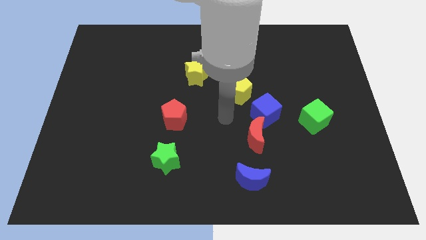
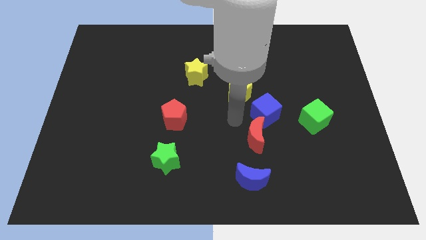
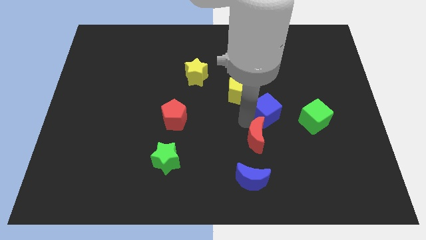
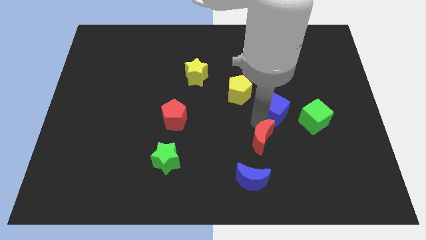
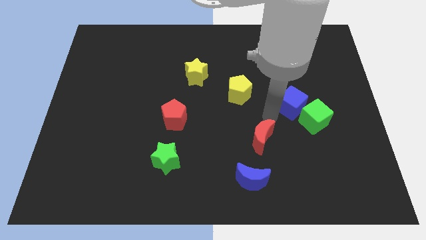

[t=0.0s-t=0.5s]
move the red moon away from the blue cube

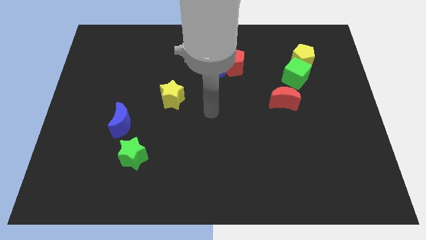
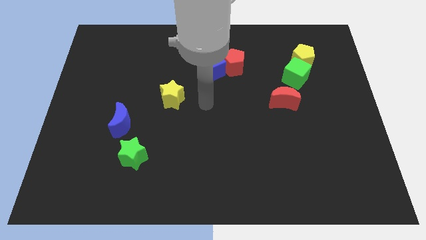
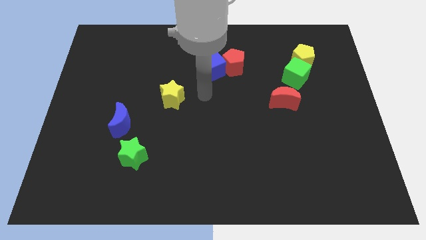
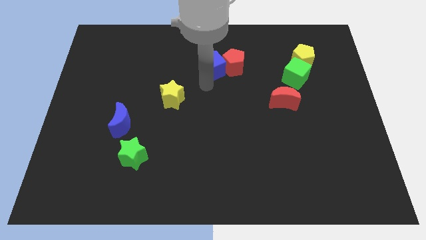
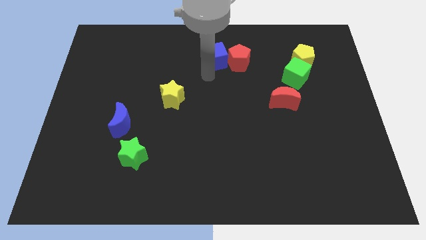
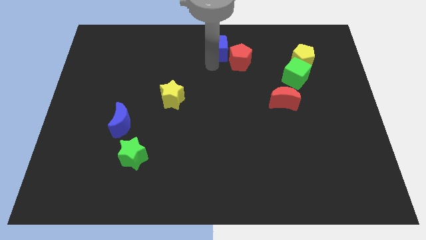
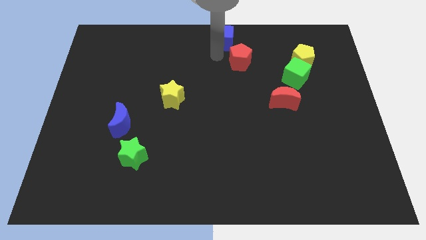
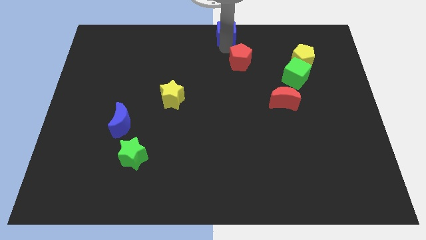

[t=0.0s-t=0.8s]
move the red pentagon away from the blue cube

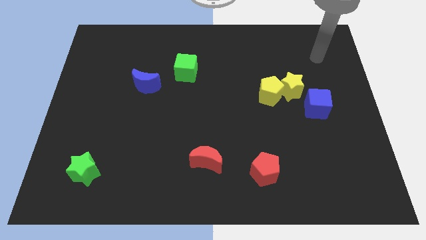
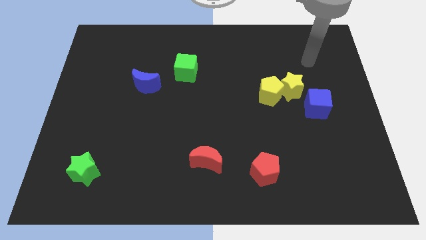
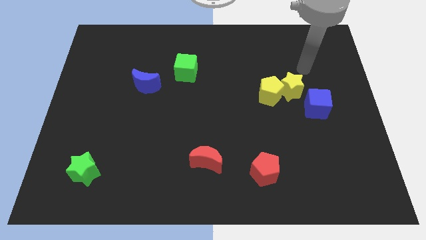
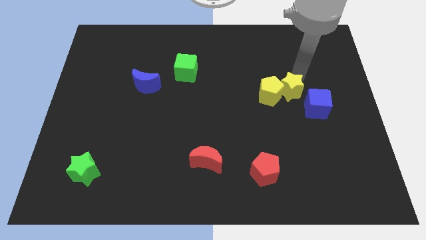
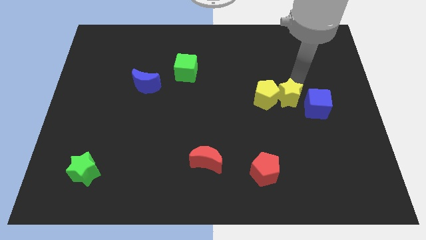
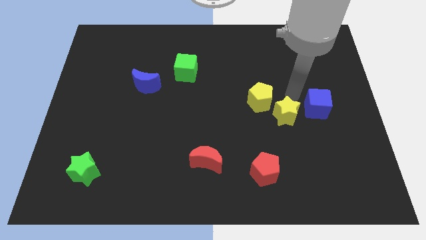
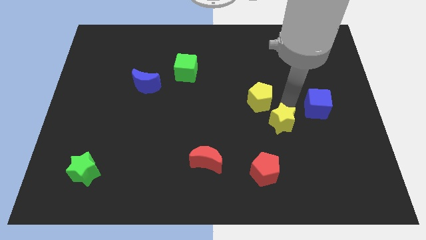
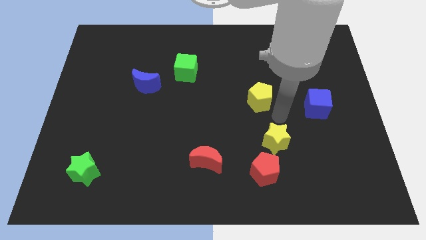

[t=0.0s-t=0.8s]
pull the yellow pentagon apart from the yellow star

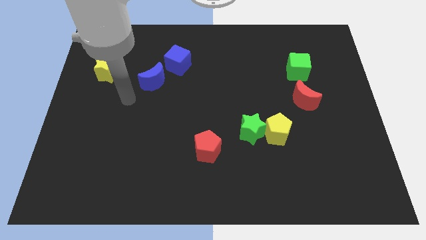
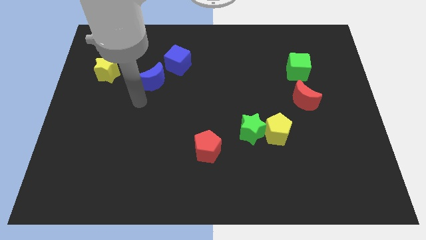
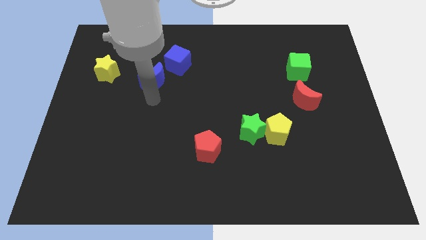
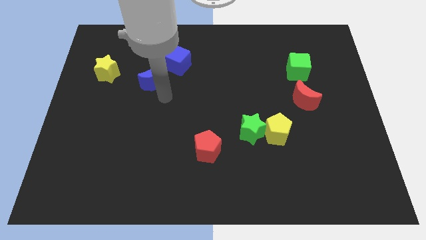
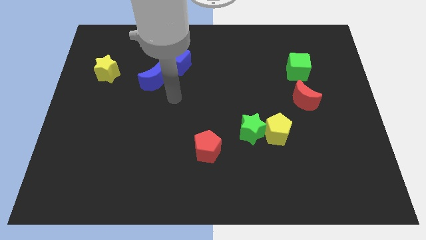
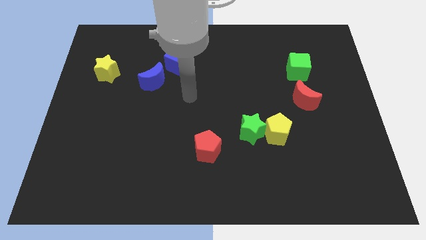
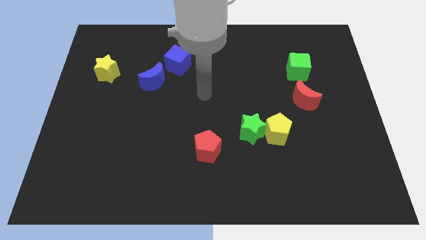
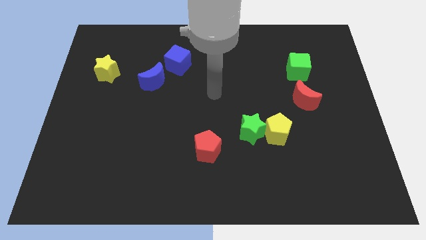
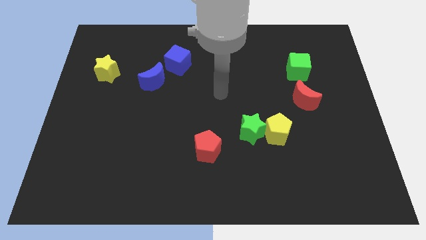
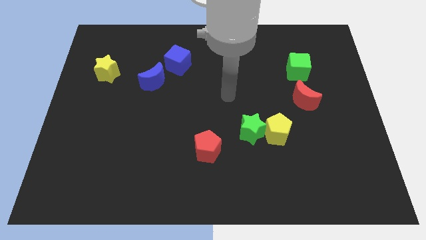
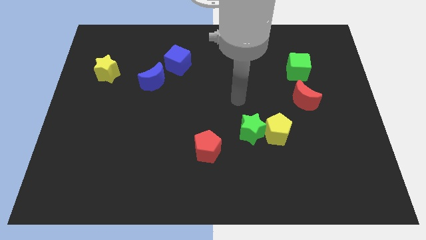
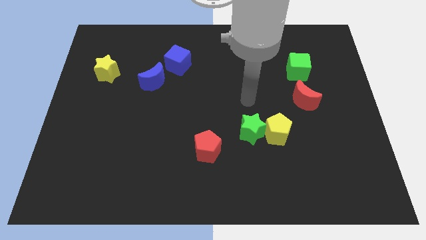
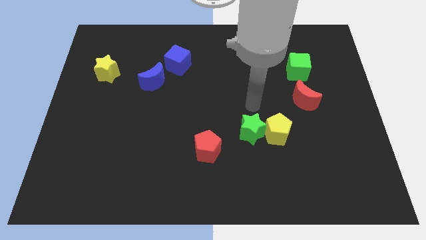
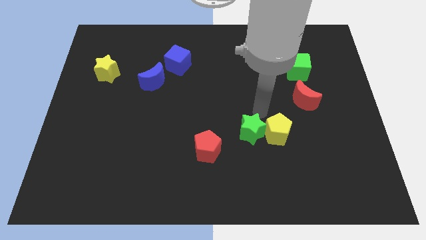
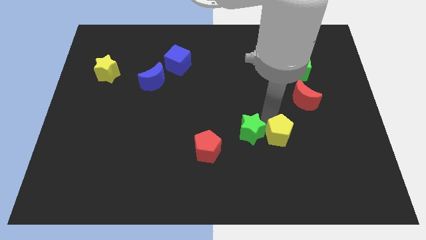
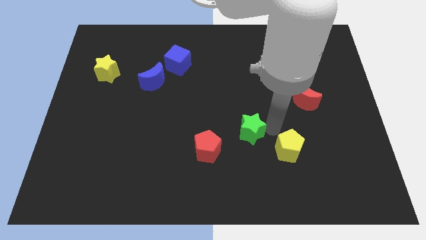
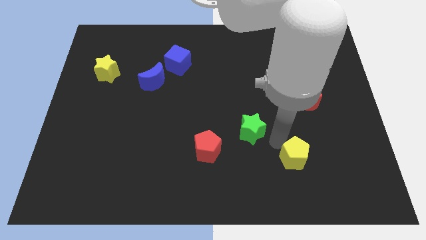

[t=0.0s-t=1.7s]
move the green star away from the yellow pentagon

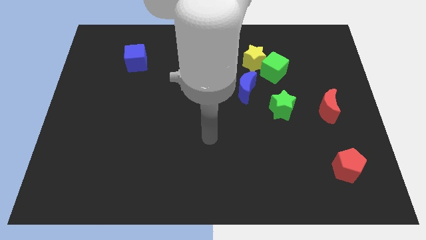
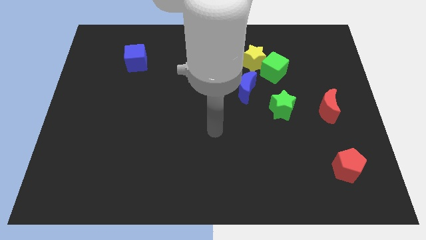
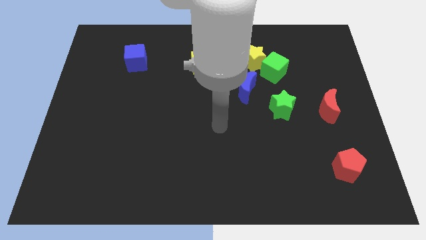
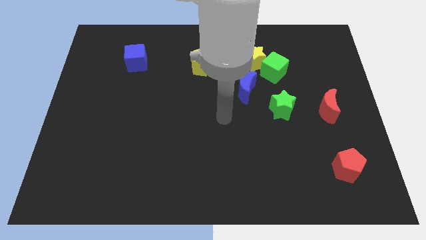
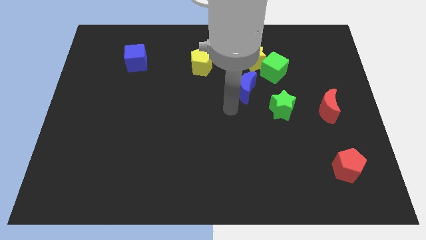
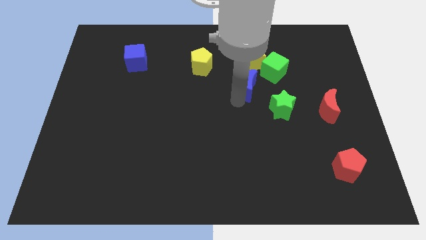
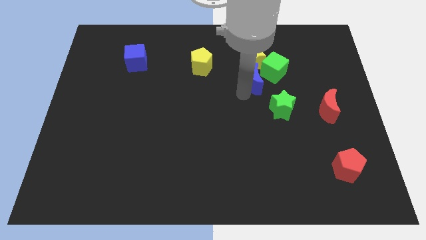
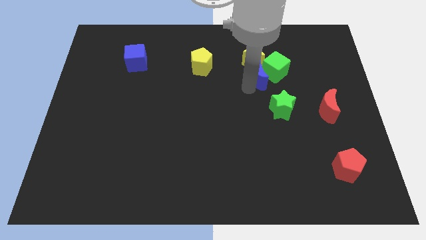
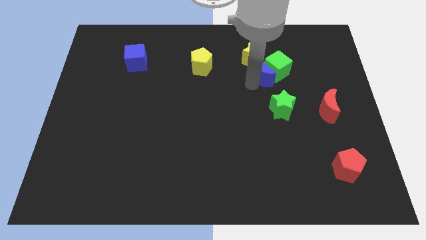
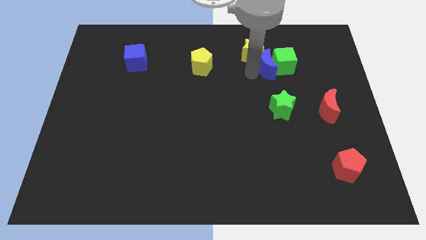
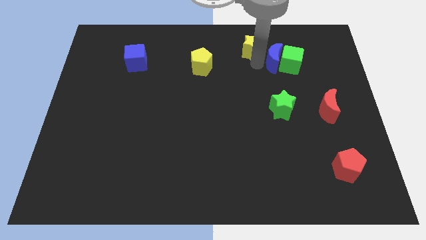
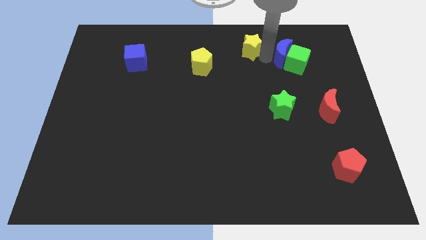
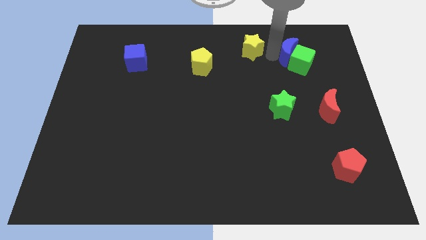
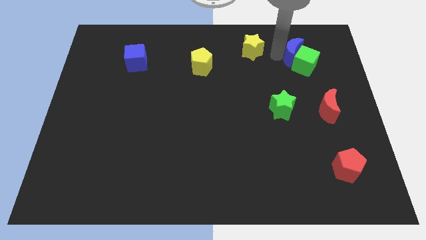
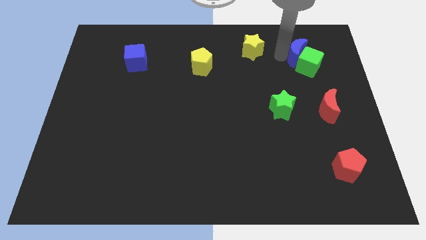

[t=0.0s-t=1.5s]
move the green cube away from the yellow star and blue moon

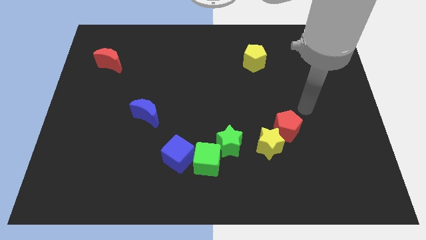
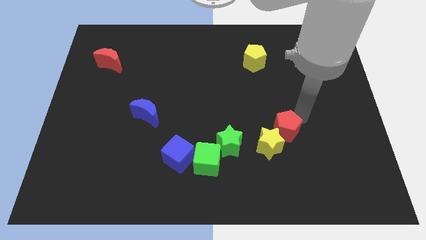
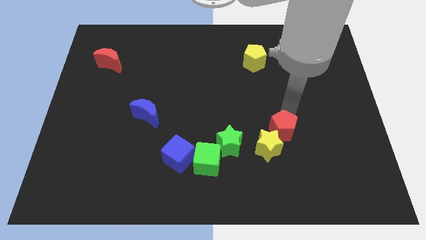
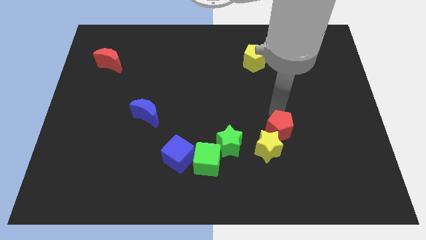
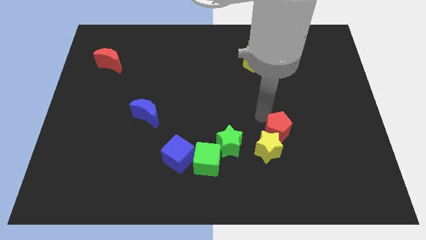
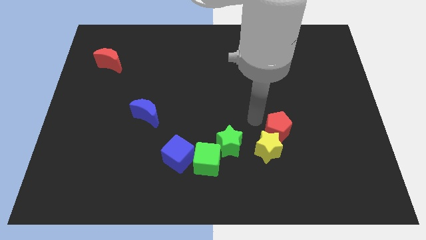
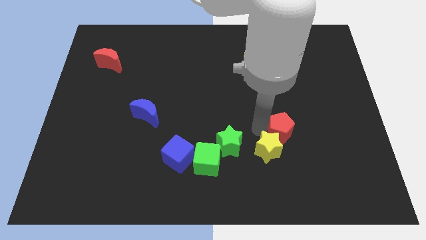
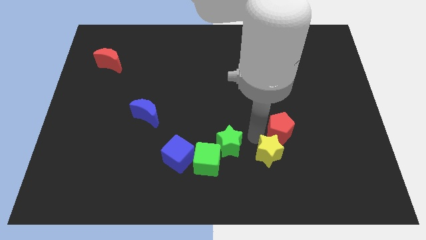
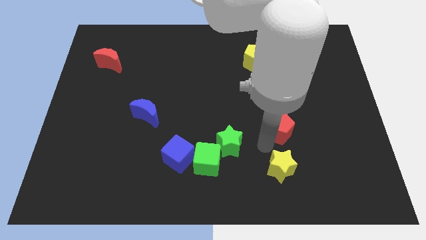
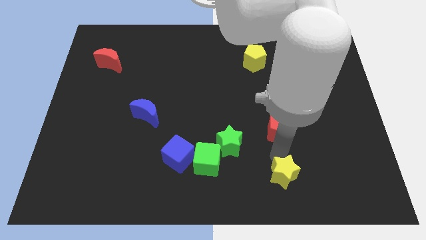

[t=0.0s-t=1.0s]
separate the red pentagon from the yellow star

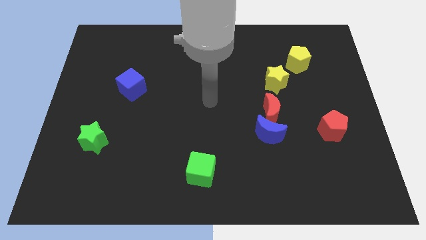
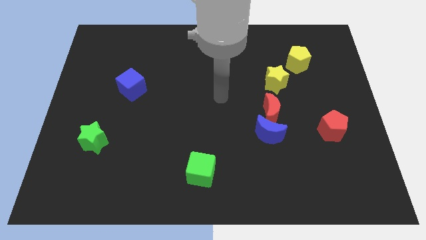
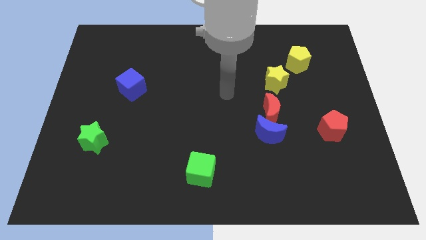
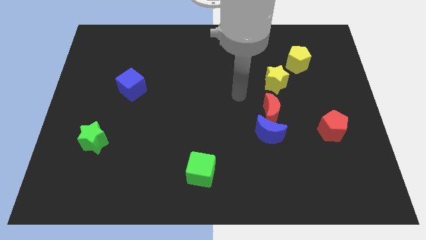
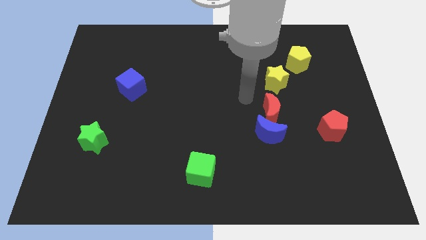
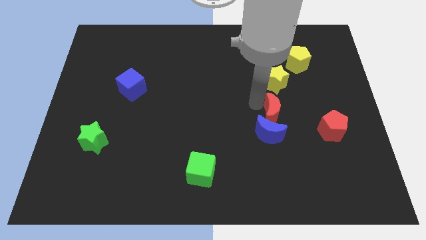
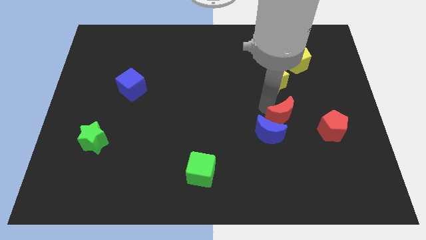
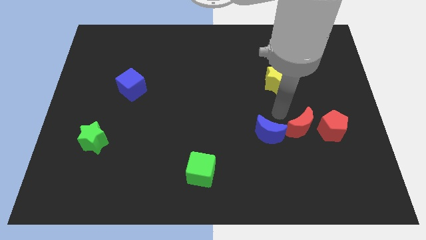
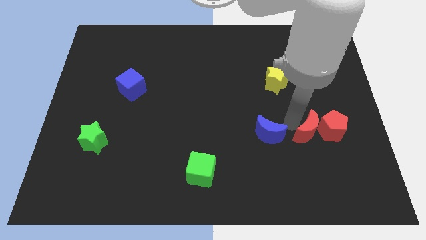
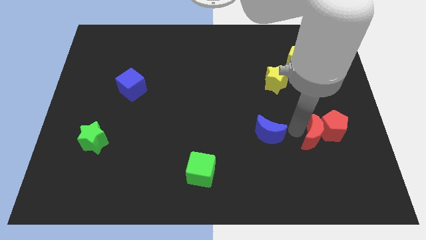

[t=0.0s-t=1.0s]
pull the blue moon apart from the red moon

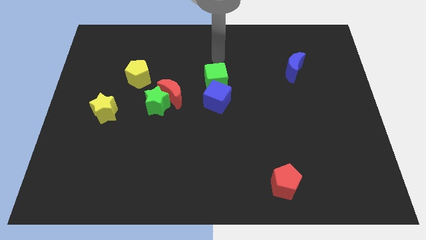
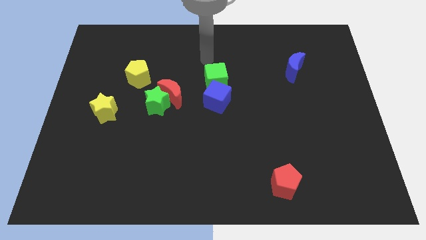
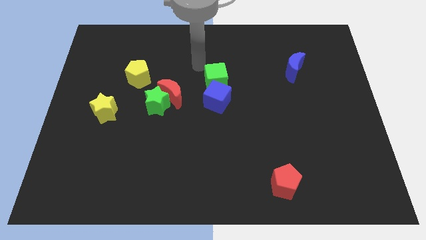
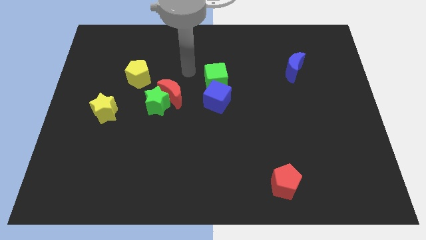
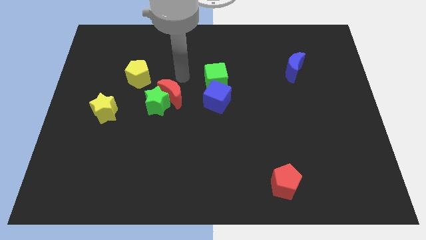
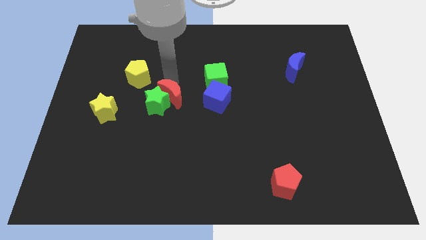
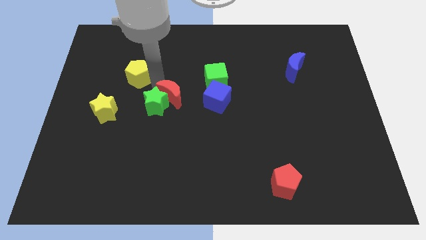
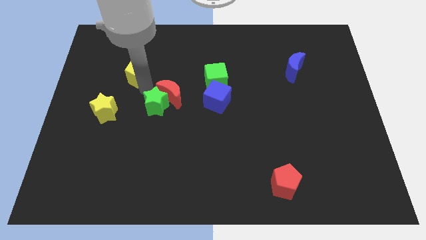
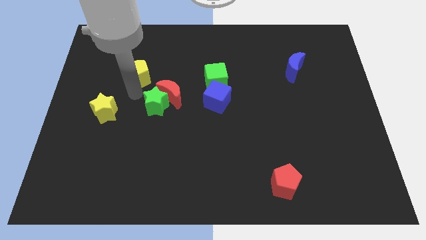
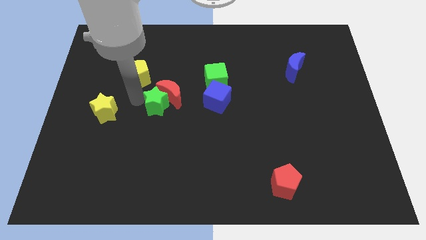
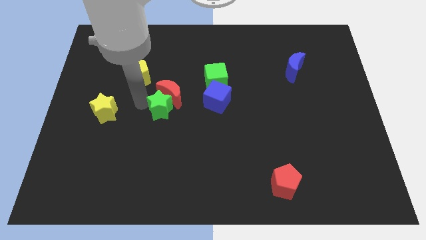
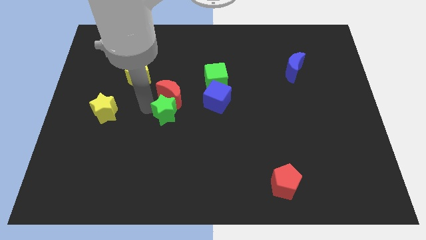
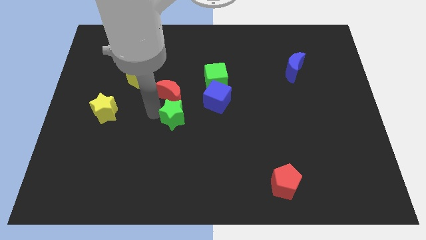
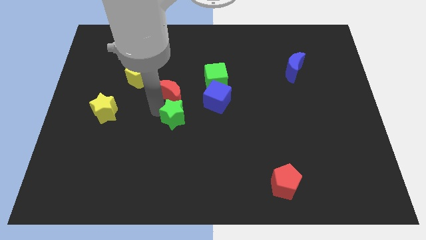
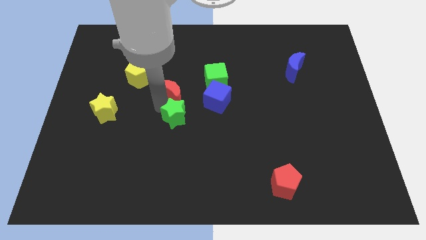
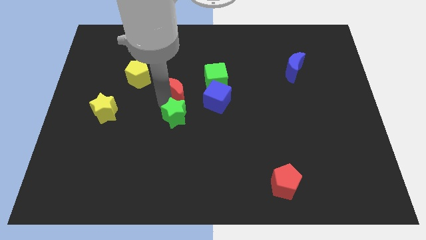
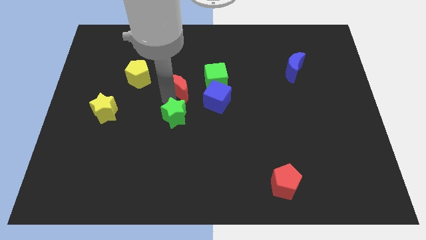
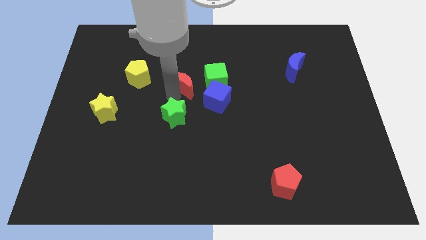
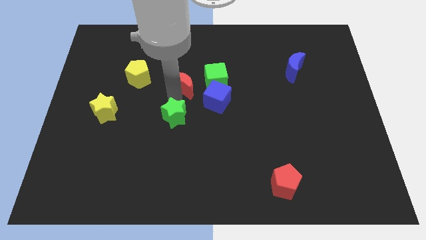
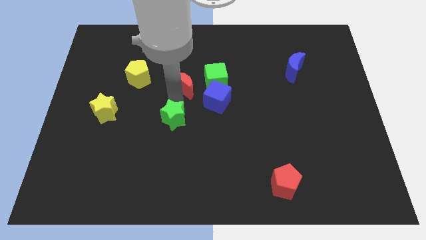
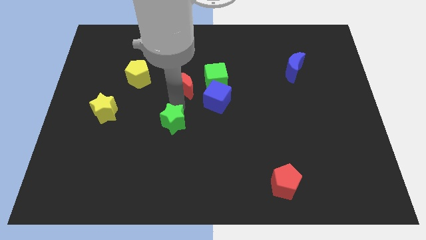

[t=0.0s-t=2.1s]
pull the red moon apart from the green star
